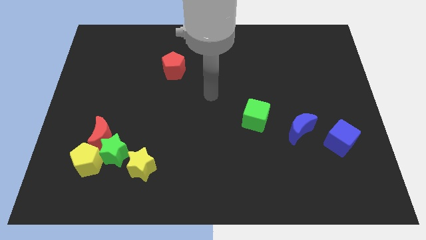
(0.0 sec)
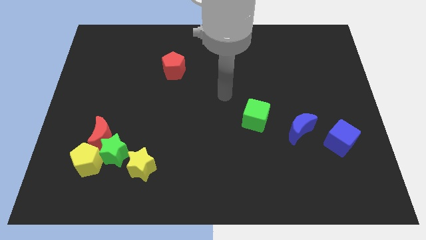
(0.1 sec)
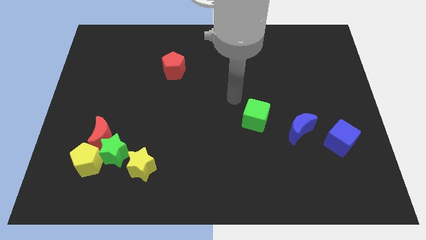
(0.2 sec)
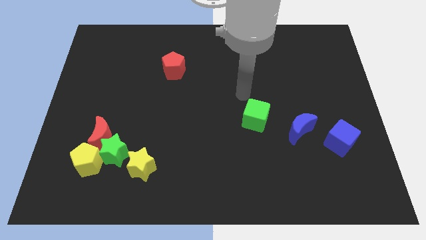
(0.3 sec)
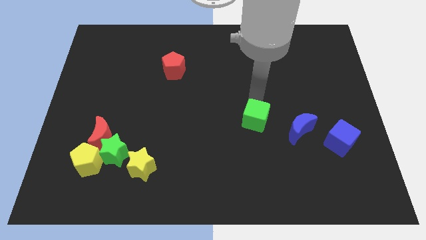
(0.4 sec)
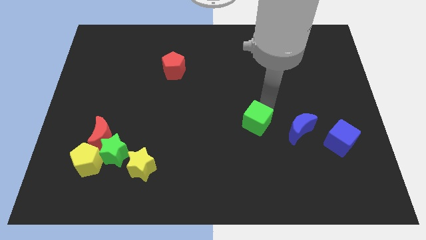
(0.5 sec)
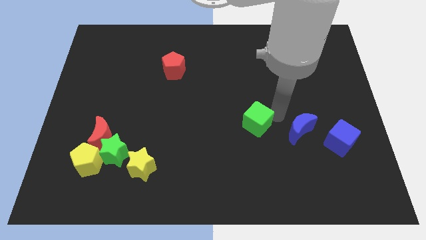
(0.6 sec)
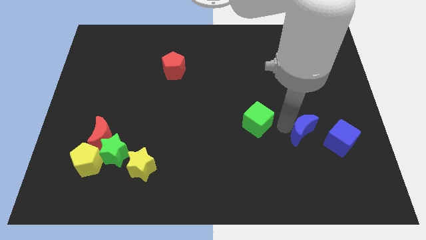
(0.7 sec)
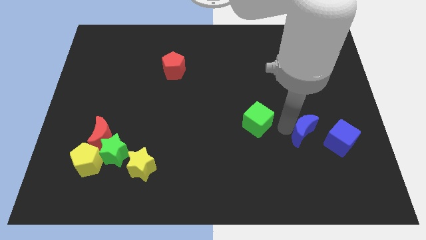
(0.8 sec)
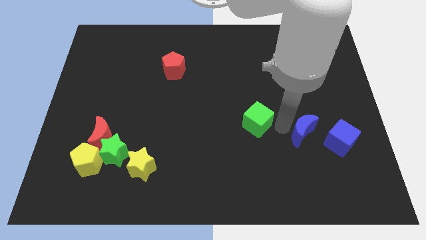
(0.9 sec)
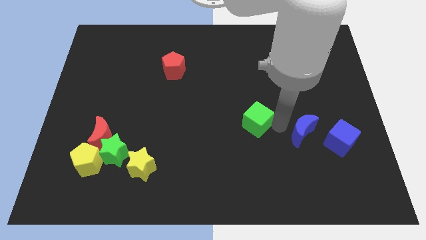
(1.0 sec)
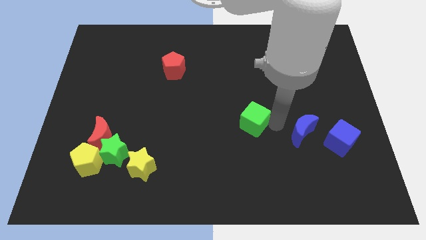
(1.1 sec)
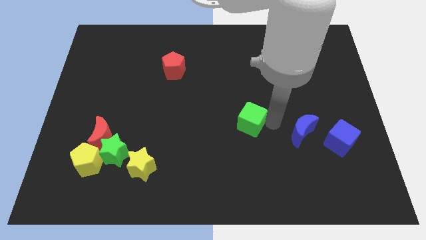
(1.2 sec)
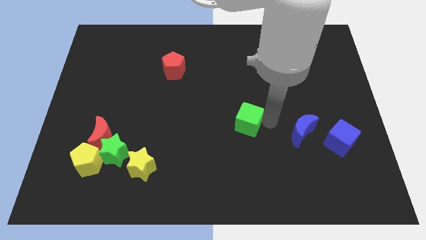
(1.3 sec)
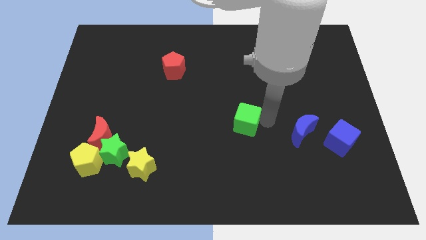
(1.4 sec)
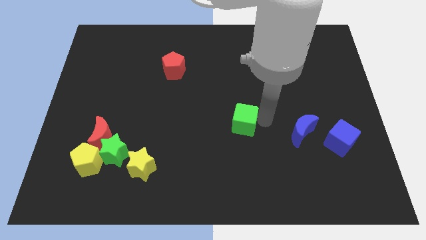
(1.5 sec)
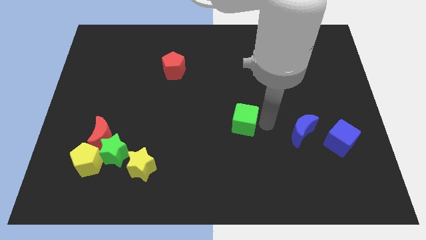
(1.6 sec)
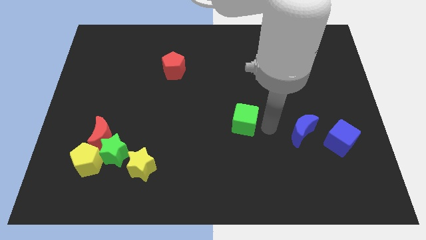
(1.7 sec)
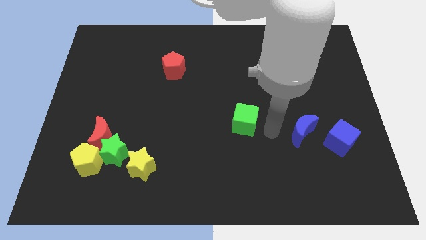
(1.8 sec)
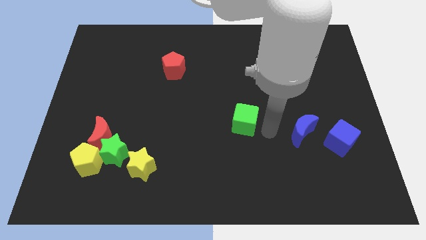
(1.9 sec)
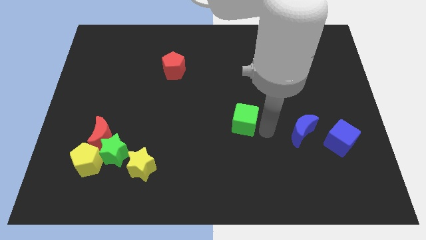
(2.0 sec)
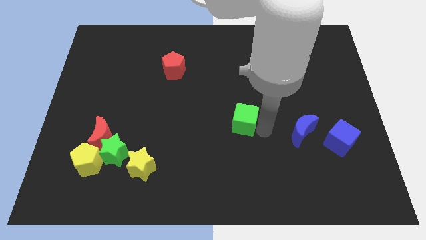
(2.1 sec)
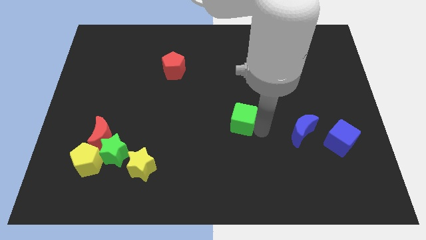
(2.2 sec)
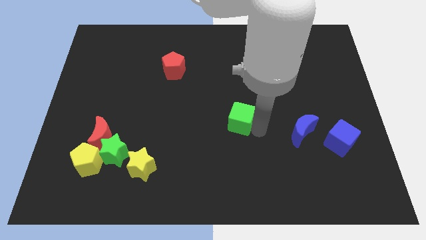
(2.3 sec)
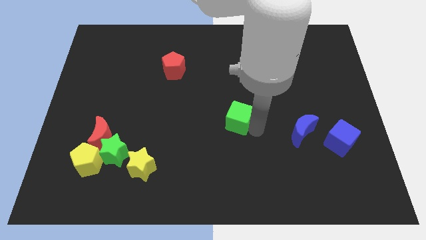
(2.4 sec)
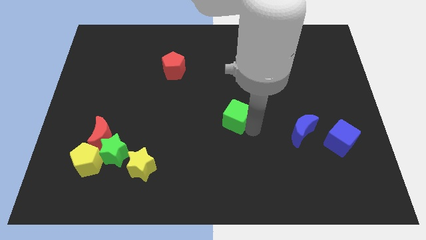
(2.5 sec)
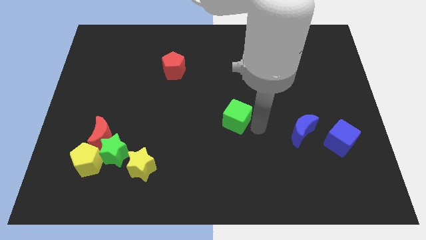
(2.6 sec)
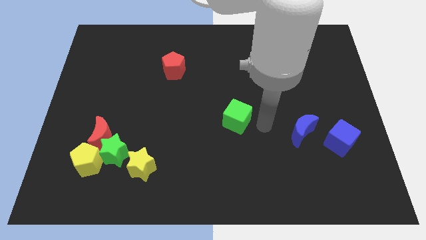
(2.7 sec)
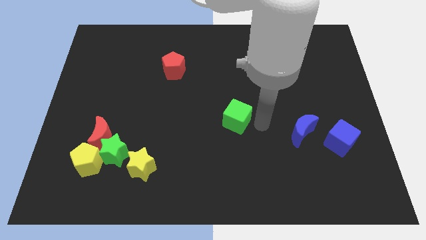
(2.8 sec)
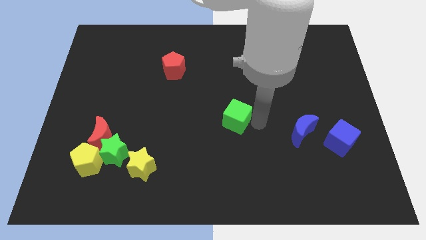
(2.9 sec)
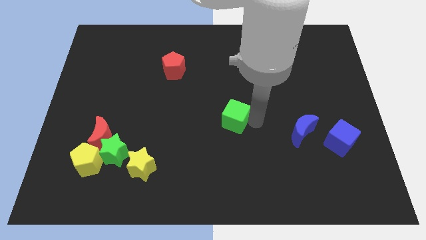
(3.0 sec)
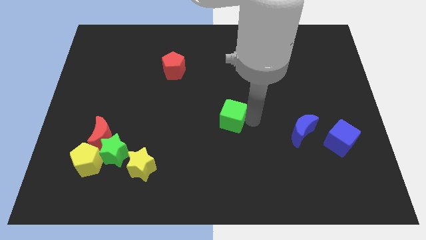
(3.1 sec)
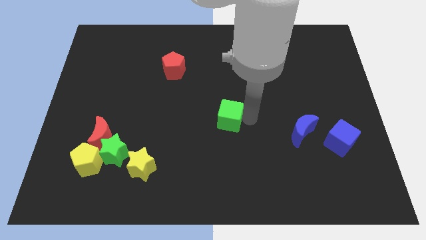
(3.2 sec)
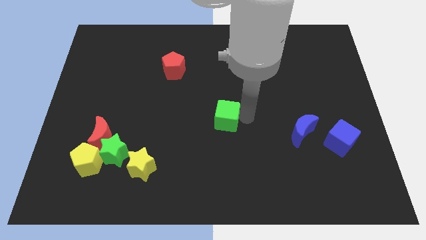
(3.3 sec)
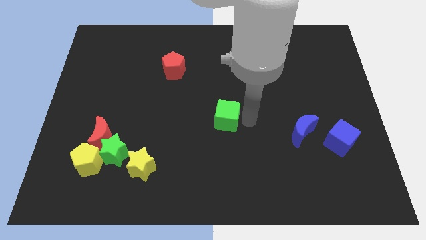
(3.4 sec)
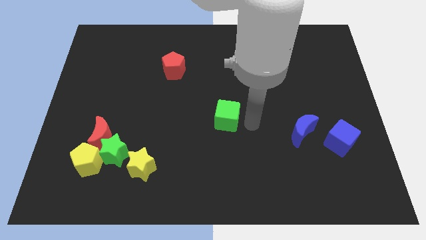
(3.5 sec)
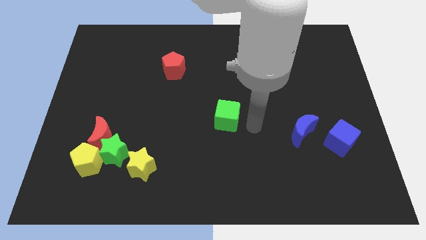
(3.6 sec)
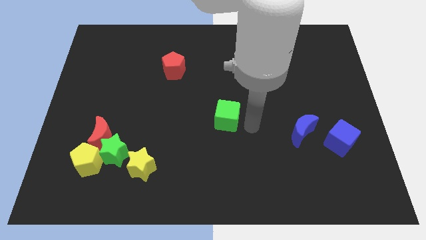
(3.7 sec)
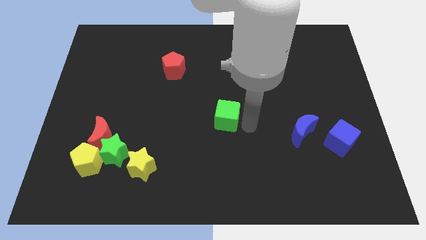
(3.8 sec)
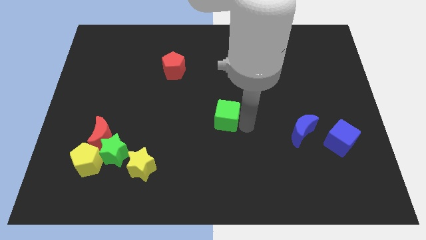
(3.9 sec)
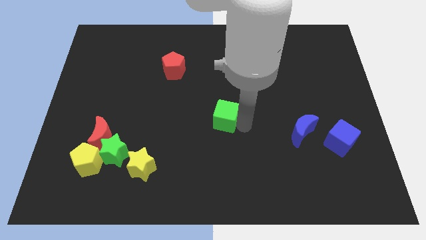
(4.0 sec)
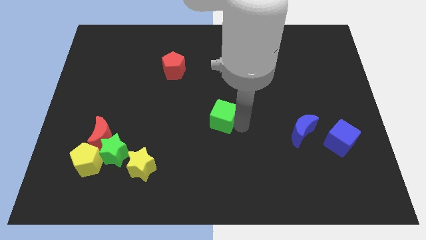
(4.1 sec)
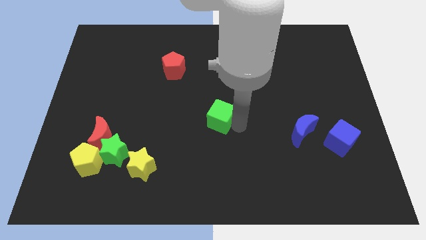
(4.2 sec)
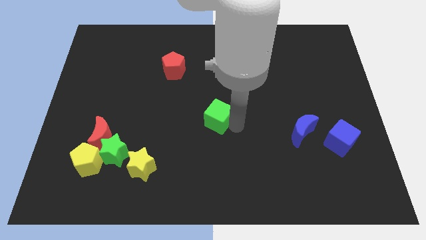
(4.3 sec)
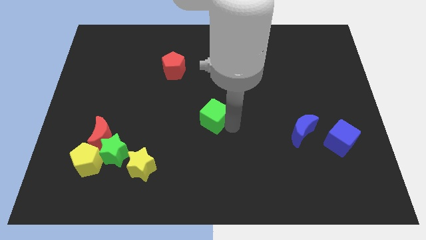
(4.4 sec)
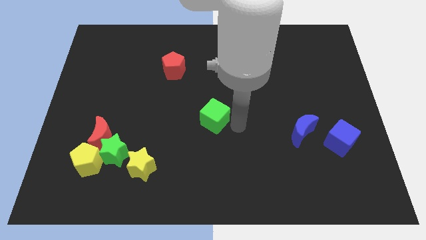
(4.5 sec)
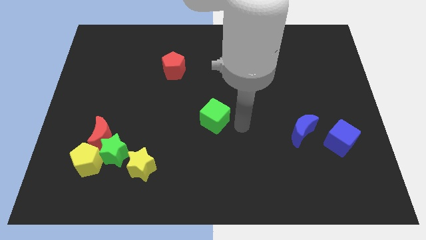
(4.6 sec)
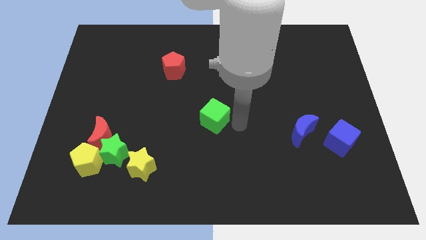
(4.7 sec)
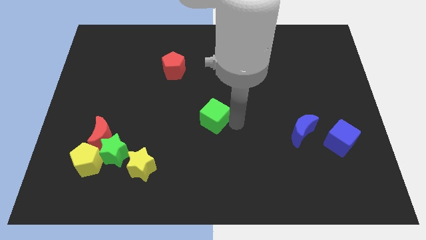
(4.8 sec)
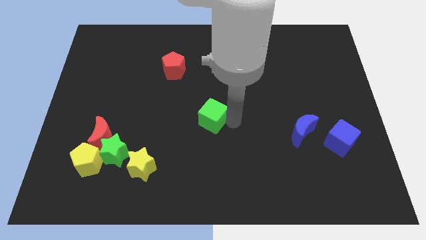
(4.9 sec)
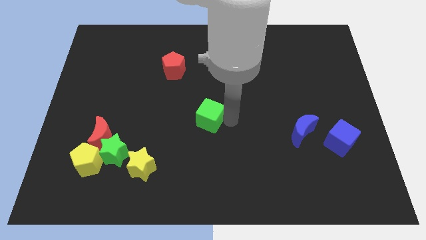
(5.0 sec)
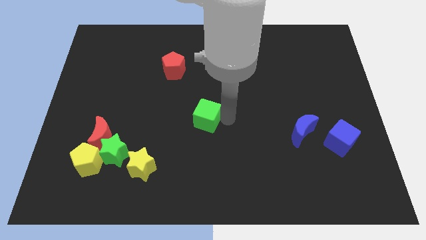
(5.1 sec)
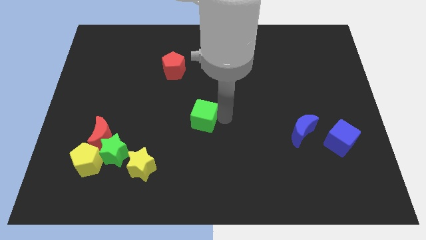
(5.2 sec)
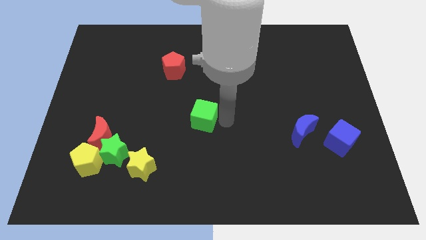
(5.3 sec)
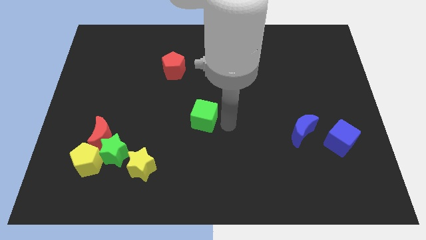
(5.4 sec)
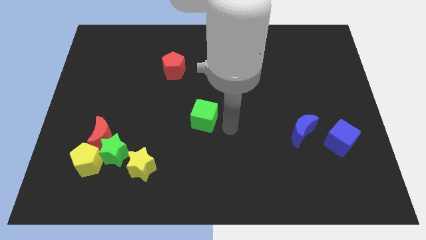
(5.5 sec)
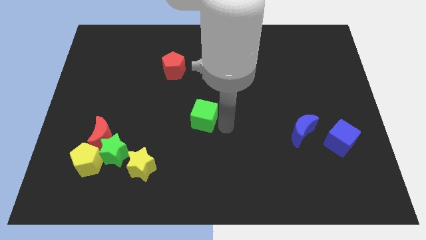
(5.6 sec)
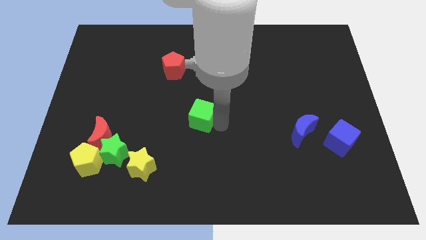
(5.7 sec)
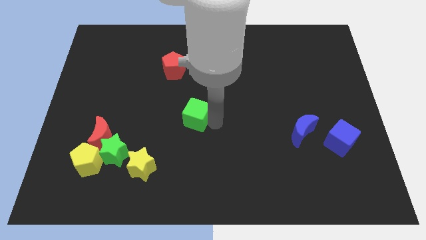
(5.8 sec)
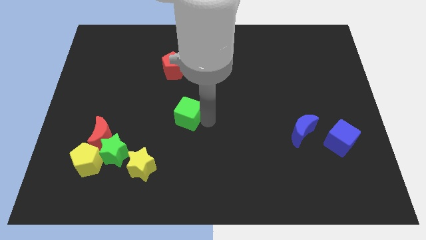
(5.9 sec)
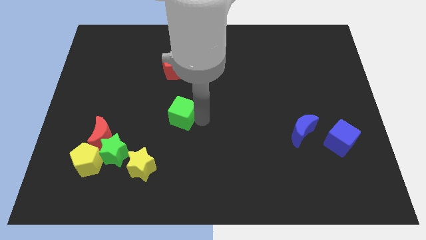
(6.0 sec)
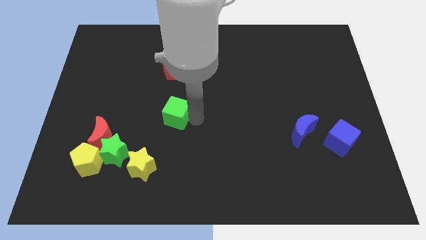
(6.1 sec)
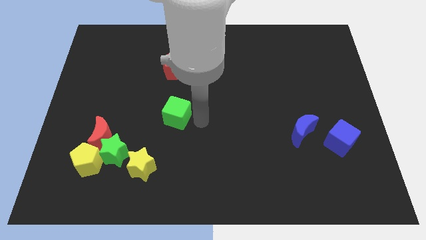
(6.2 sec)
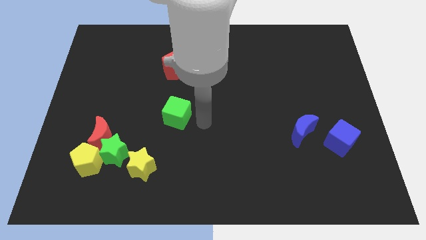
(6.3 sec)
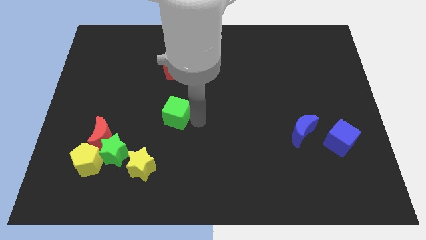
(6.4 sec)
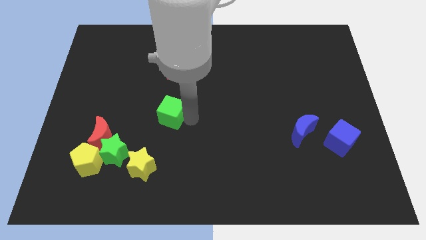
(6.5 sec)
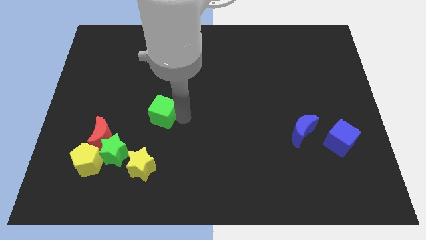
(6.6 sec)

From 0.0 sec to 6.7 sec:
slide the green cube left

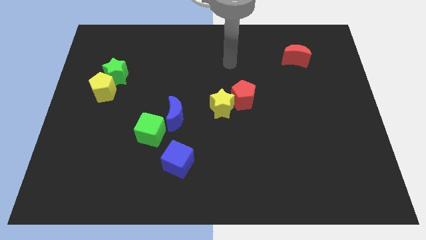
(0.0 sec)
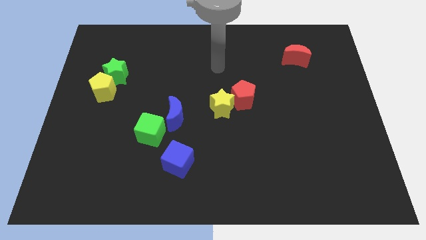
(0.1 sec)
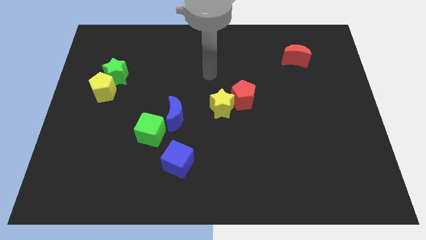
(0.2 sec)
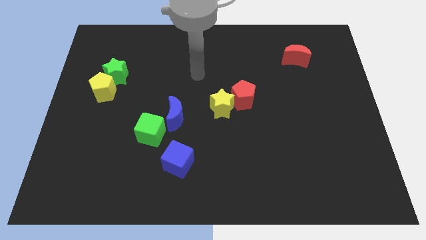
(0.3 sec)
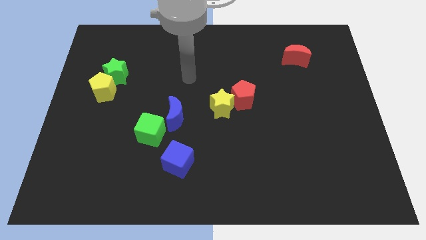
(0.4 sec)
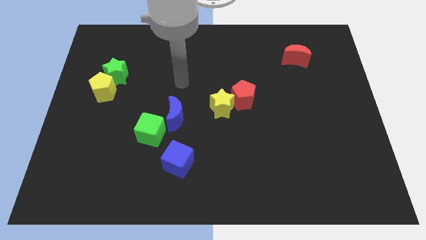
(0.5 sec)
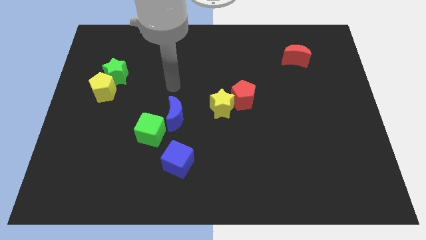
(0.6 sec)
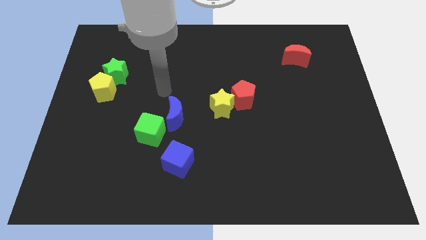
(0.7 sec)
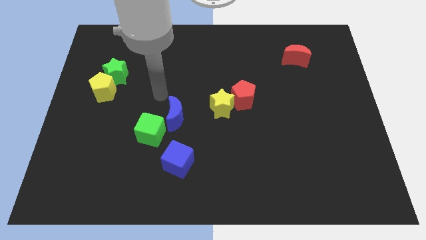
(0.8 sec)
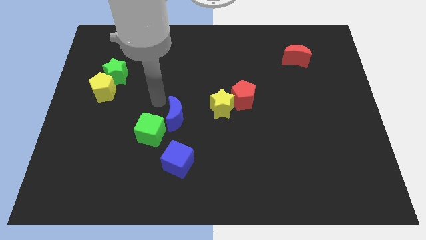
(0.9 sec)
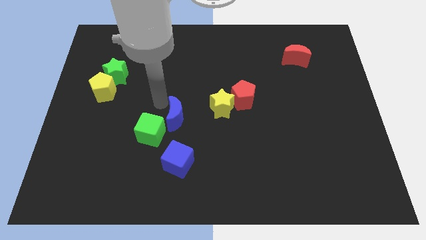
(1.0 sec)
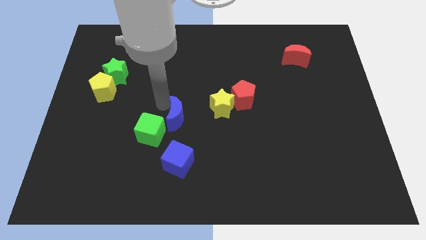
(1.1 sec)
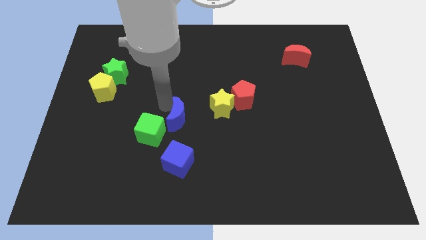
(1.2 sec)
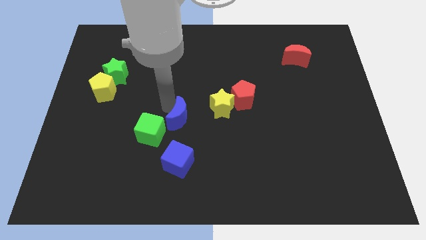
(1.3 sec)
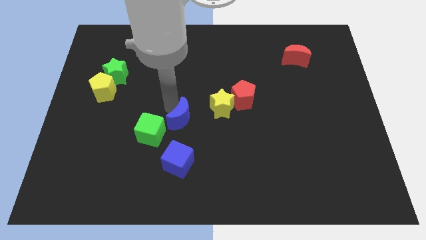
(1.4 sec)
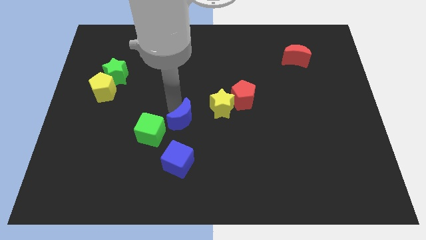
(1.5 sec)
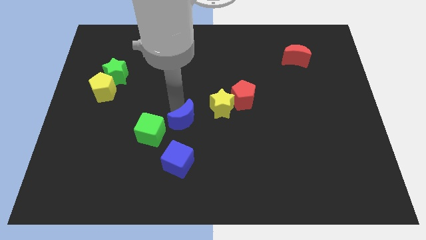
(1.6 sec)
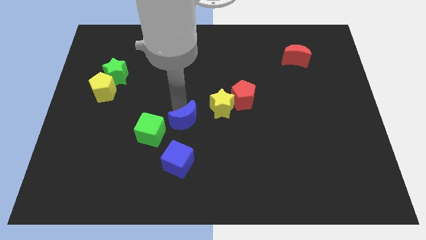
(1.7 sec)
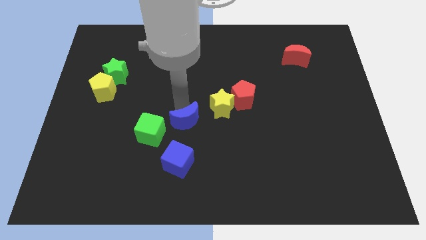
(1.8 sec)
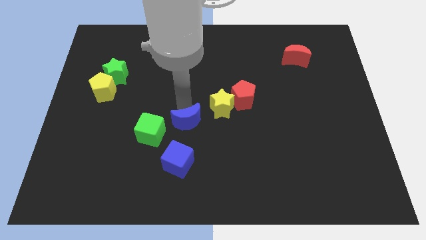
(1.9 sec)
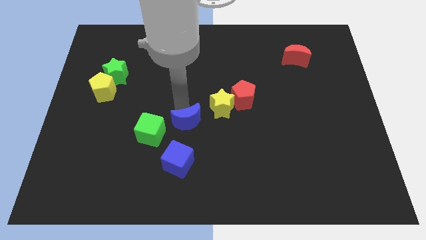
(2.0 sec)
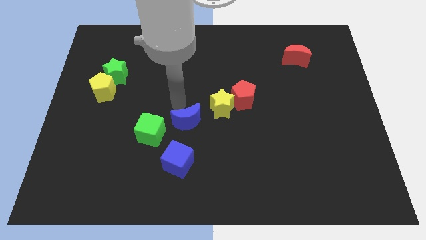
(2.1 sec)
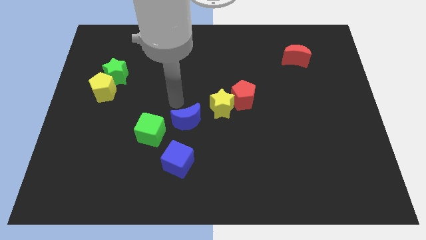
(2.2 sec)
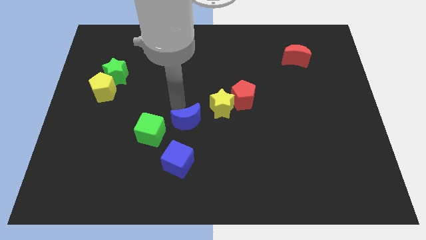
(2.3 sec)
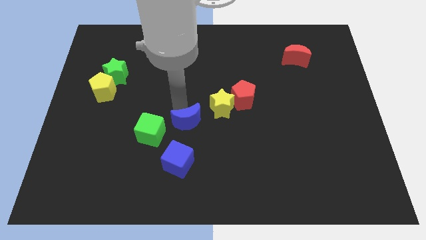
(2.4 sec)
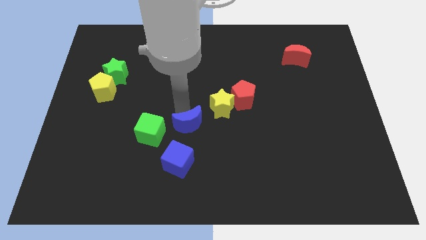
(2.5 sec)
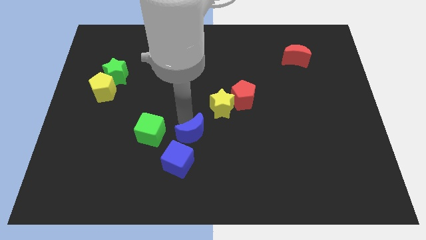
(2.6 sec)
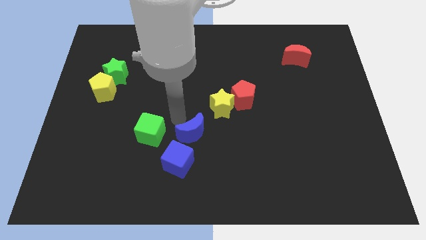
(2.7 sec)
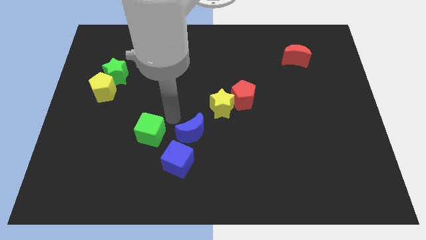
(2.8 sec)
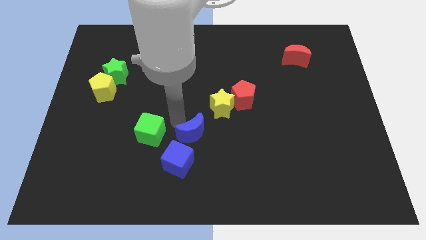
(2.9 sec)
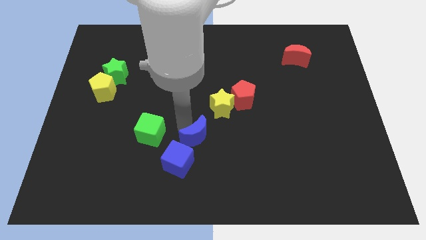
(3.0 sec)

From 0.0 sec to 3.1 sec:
move the blue moon downwards and then to the right a bit
